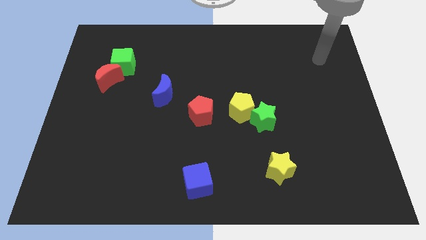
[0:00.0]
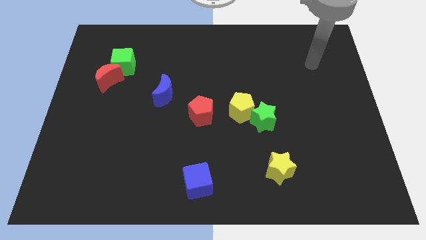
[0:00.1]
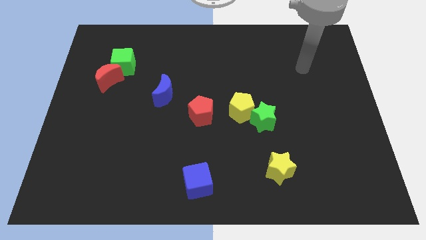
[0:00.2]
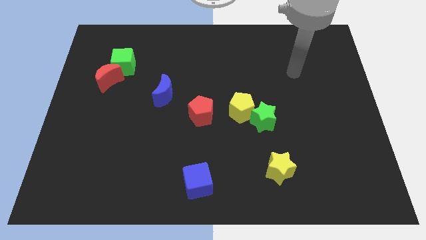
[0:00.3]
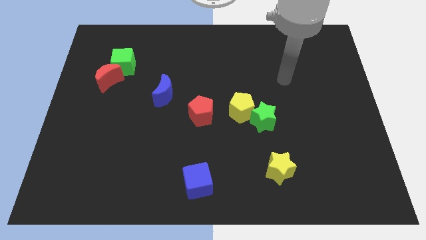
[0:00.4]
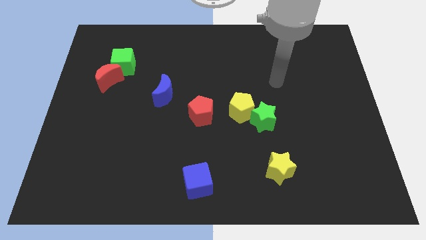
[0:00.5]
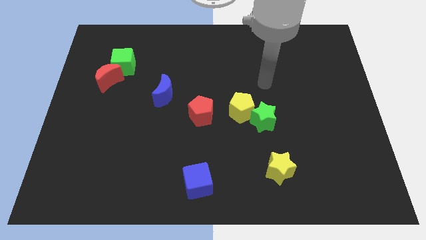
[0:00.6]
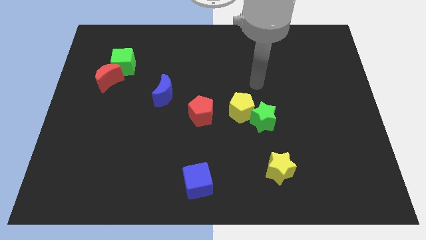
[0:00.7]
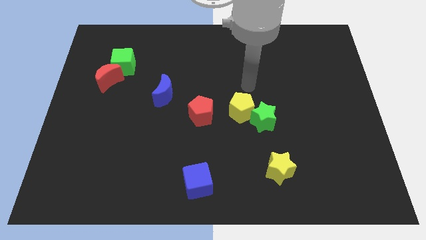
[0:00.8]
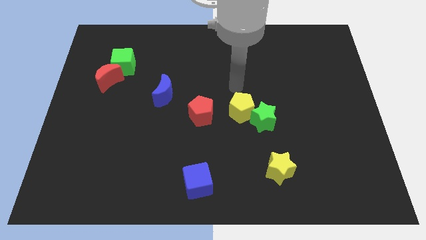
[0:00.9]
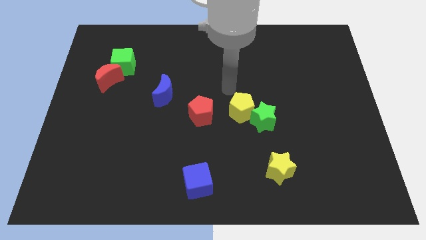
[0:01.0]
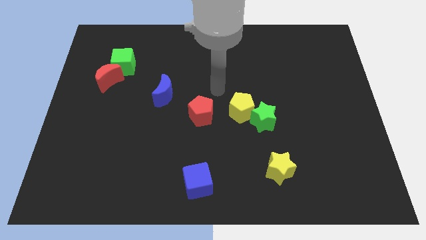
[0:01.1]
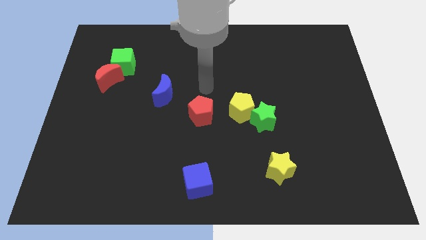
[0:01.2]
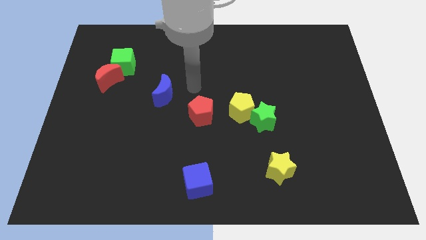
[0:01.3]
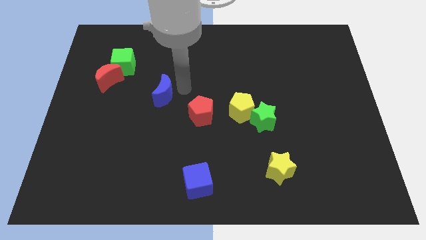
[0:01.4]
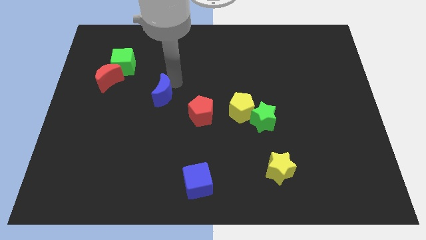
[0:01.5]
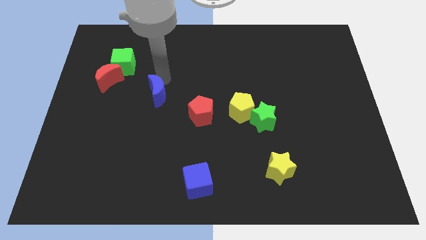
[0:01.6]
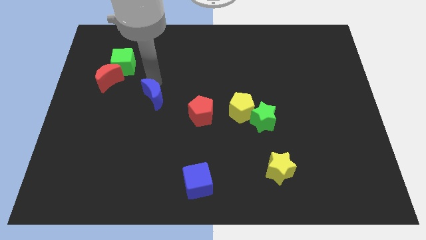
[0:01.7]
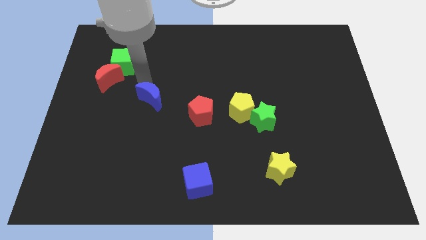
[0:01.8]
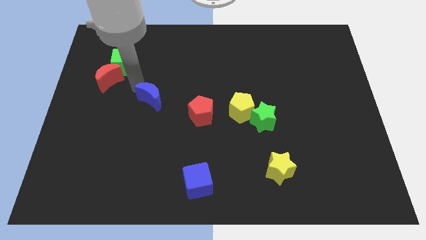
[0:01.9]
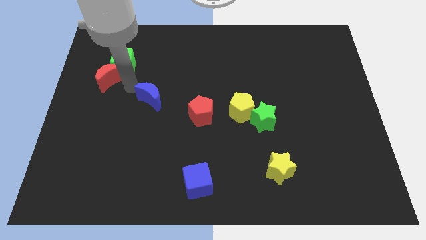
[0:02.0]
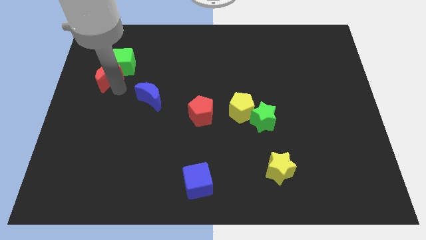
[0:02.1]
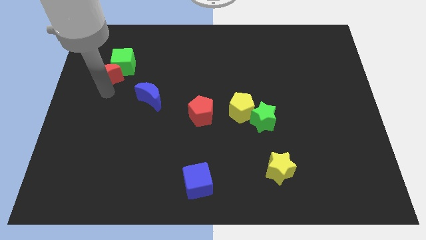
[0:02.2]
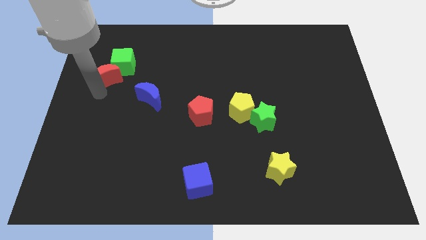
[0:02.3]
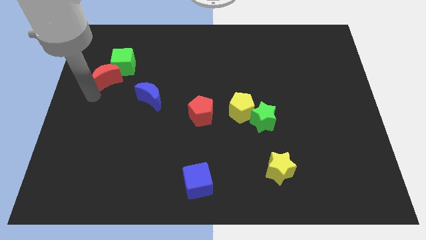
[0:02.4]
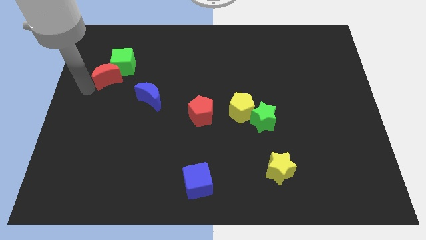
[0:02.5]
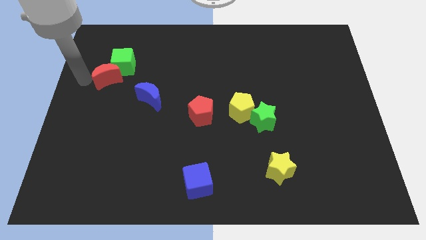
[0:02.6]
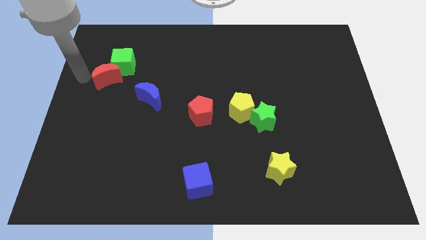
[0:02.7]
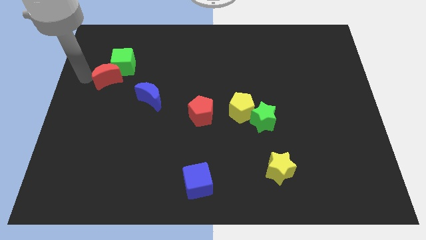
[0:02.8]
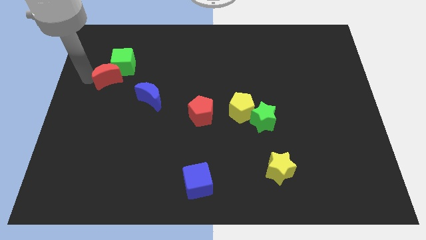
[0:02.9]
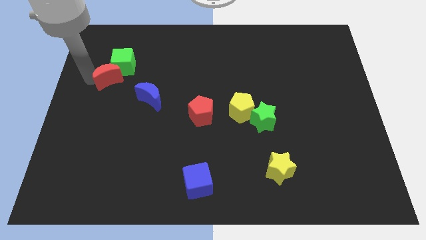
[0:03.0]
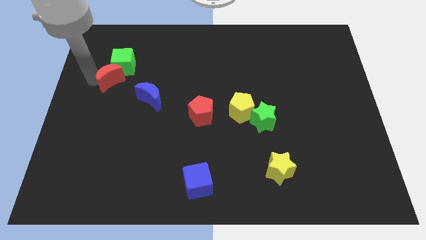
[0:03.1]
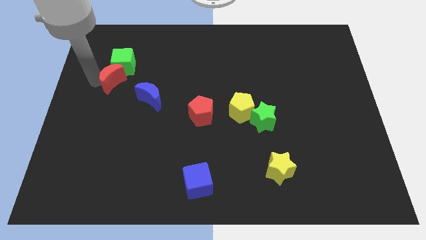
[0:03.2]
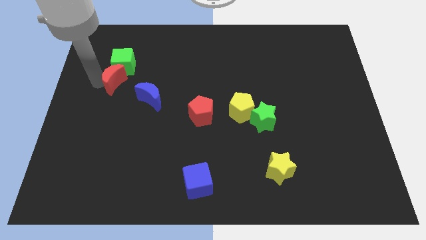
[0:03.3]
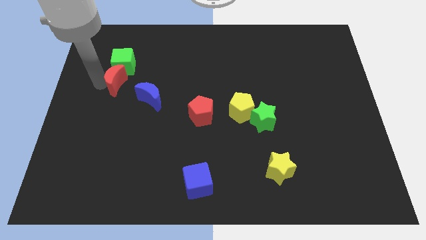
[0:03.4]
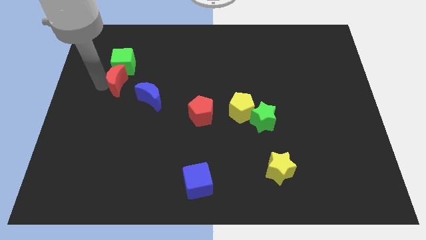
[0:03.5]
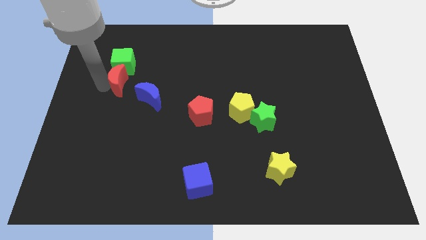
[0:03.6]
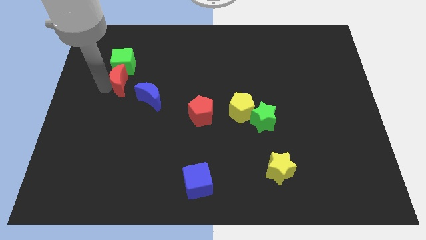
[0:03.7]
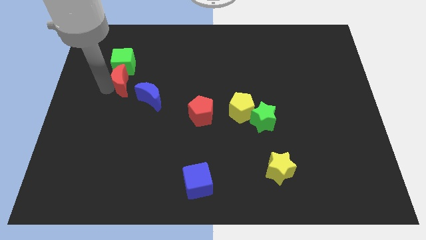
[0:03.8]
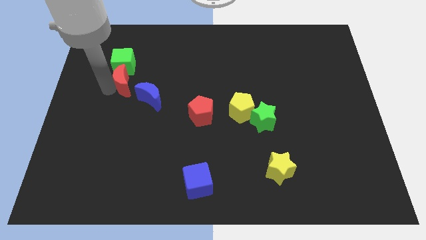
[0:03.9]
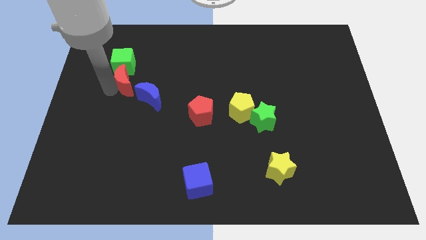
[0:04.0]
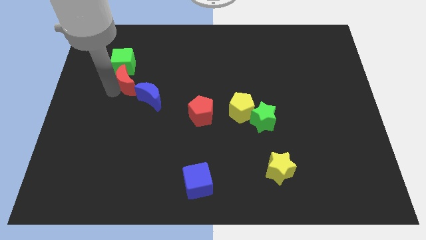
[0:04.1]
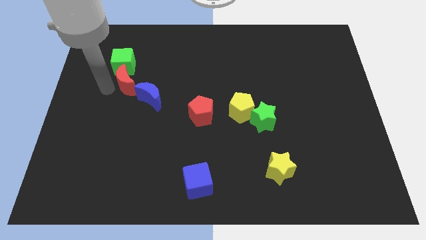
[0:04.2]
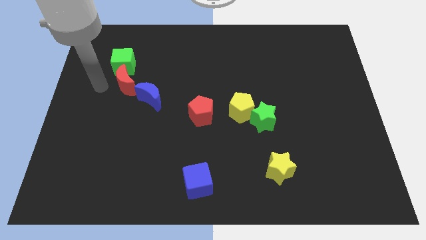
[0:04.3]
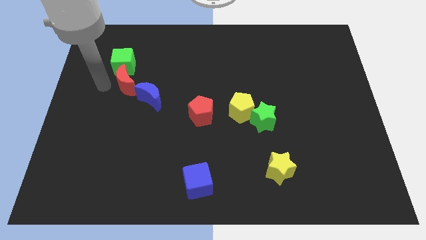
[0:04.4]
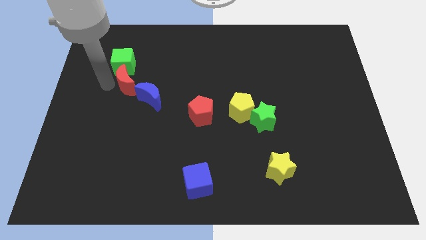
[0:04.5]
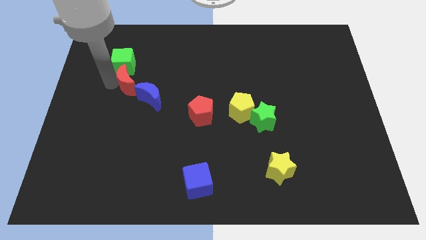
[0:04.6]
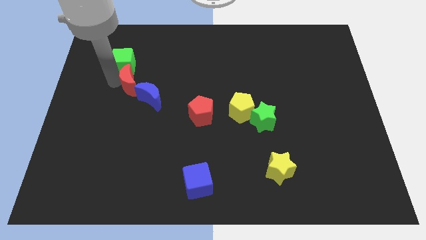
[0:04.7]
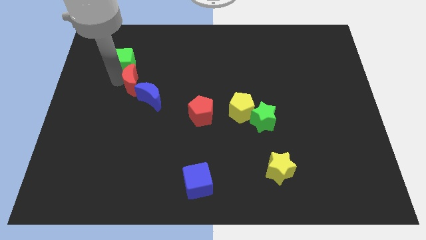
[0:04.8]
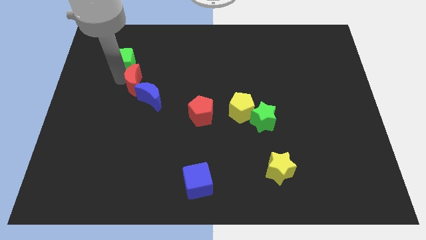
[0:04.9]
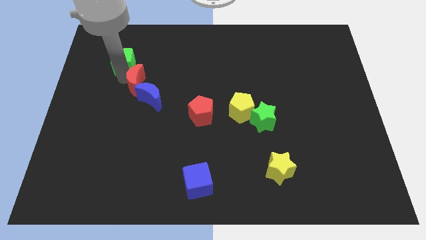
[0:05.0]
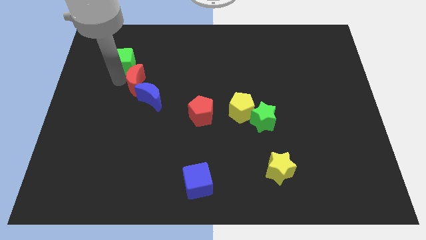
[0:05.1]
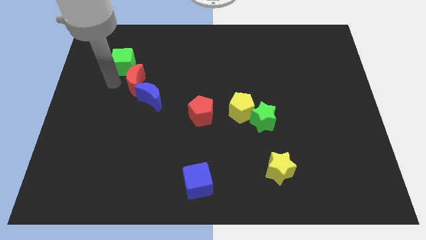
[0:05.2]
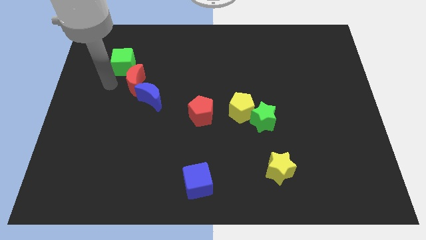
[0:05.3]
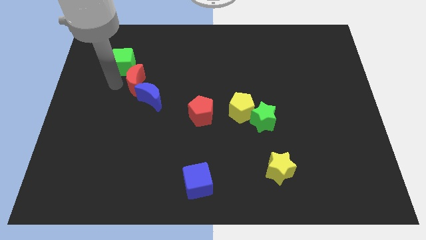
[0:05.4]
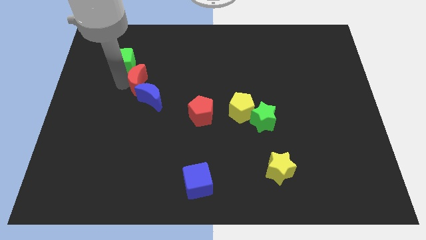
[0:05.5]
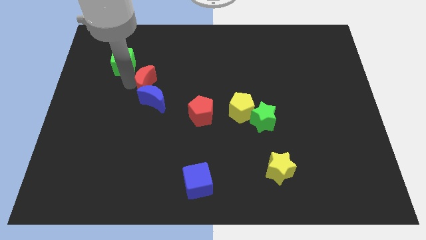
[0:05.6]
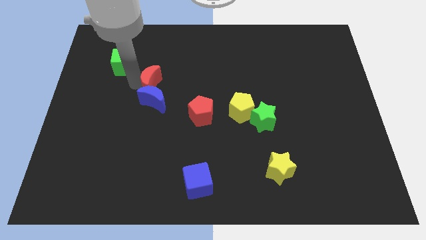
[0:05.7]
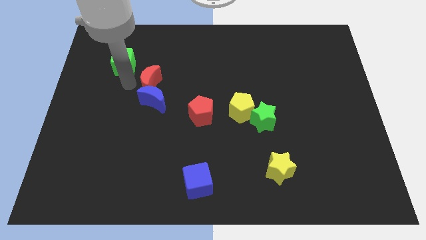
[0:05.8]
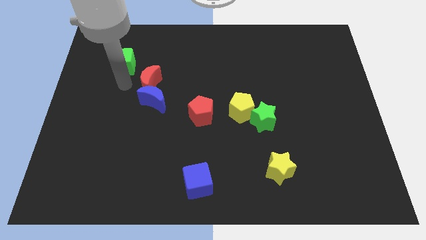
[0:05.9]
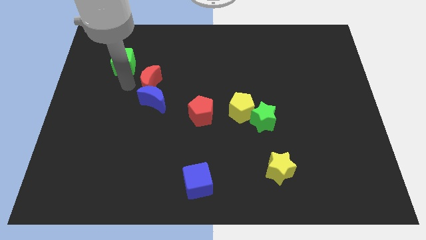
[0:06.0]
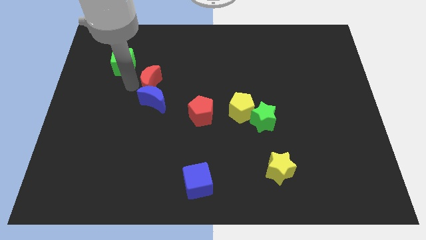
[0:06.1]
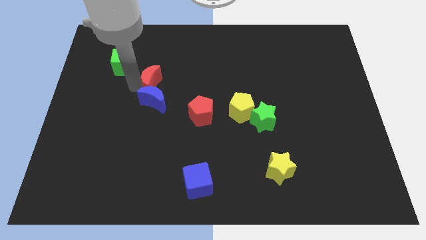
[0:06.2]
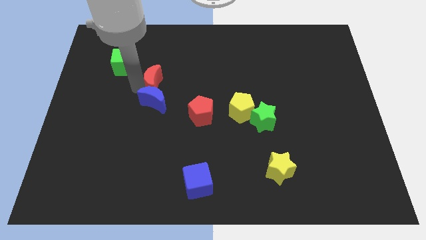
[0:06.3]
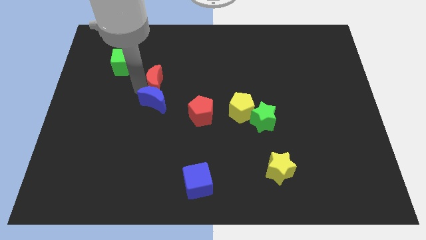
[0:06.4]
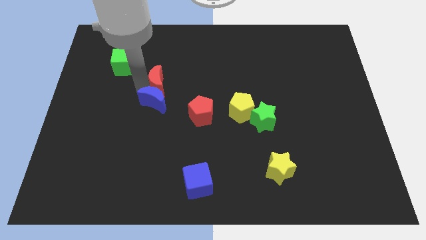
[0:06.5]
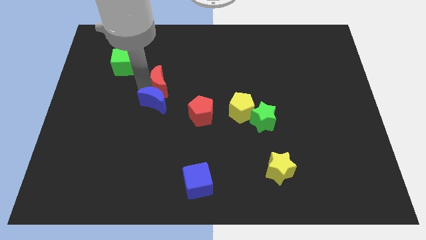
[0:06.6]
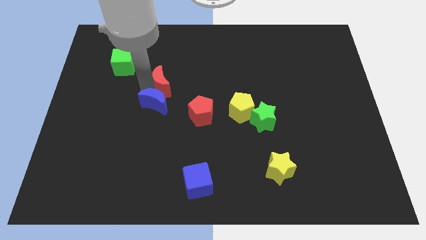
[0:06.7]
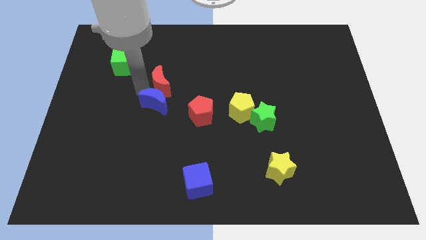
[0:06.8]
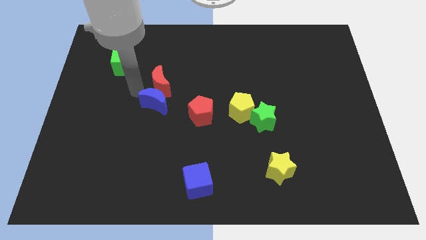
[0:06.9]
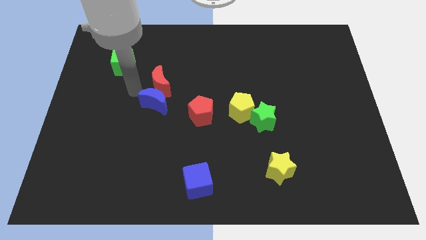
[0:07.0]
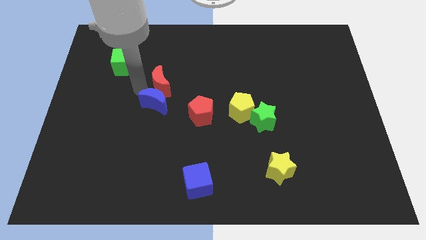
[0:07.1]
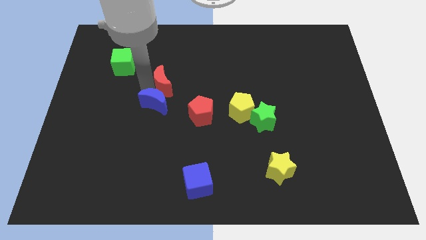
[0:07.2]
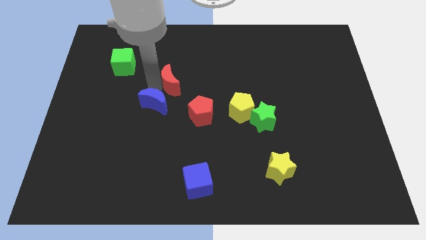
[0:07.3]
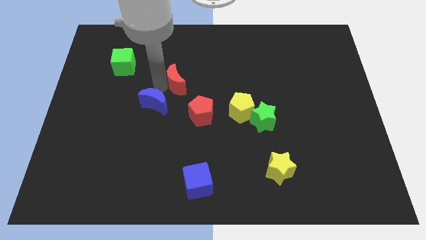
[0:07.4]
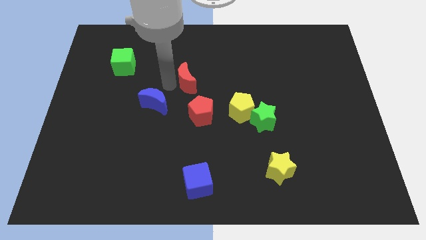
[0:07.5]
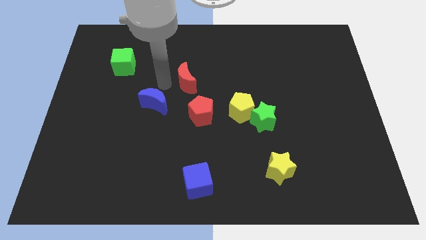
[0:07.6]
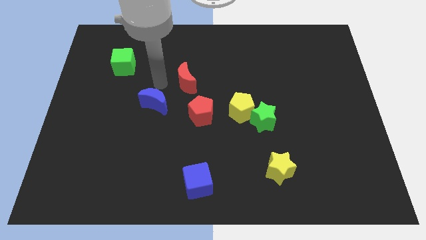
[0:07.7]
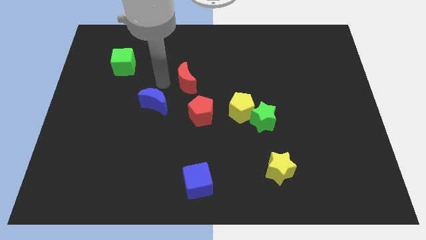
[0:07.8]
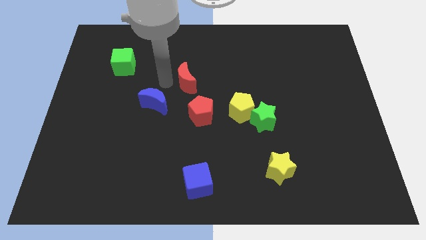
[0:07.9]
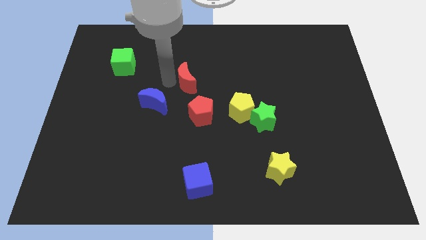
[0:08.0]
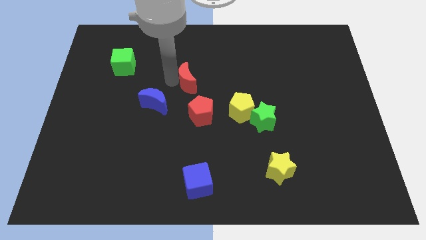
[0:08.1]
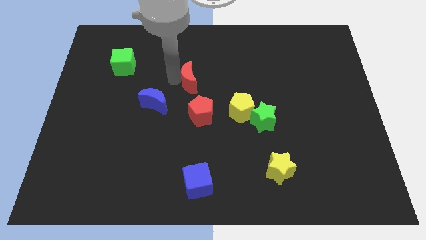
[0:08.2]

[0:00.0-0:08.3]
push the red moon right
